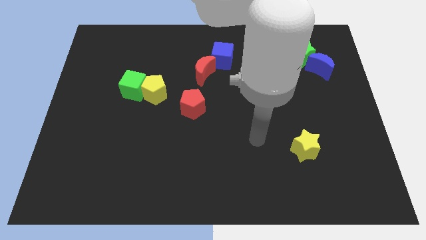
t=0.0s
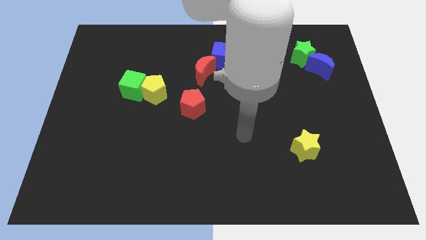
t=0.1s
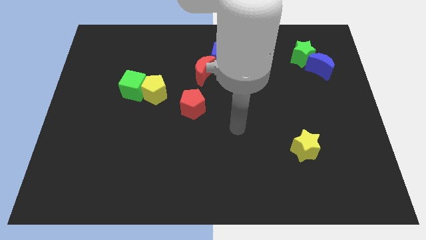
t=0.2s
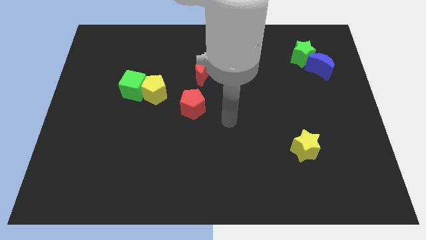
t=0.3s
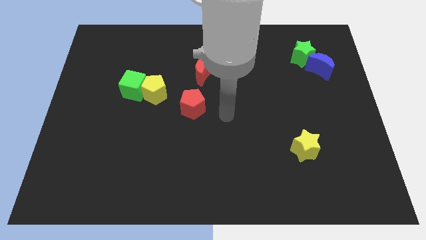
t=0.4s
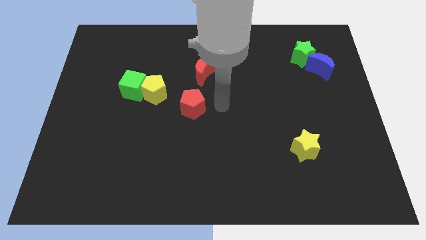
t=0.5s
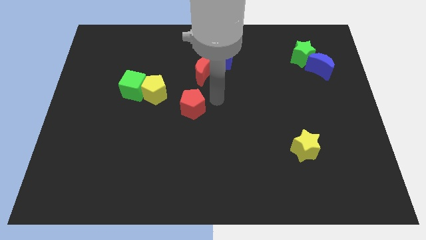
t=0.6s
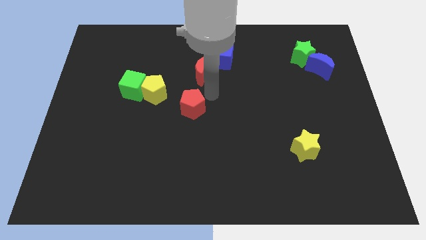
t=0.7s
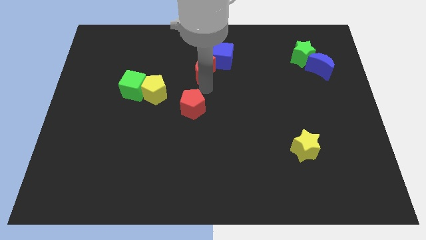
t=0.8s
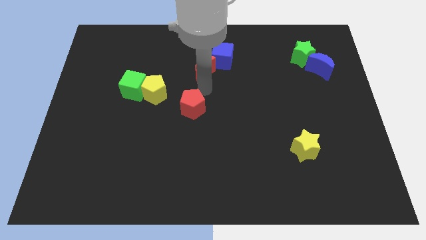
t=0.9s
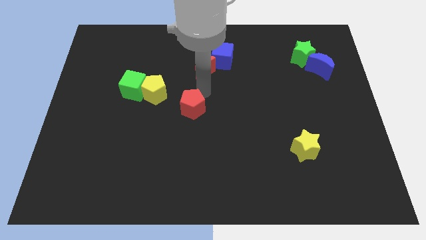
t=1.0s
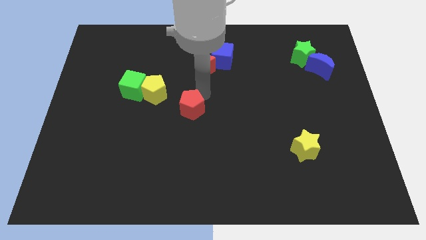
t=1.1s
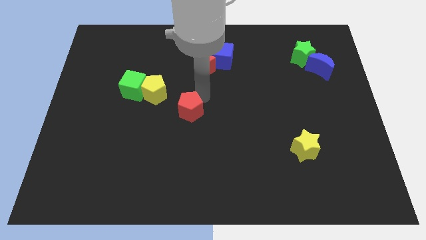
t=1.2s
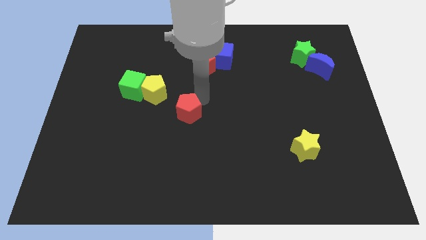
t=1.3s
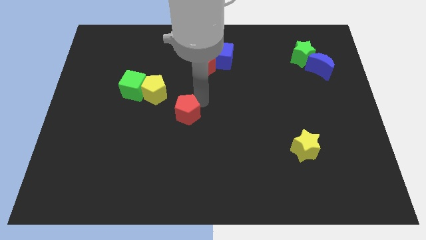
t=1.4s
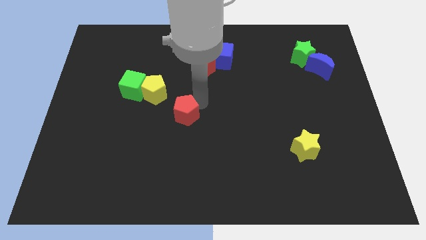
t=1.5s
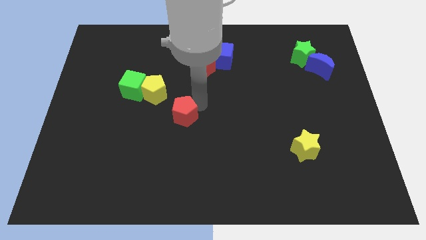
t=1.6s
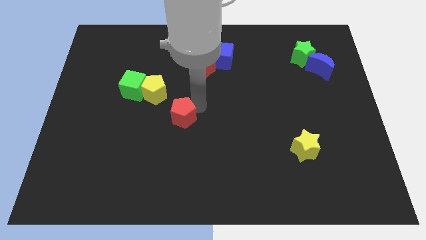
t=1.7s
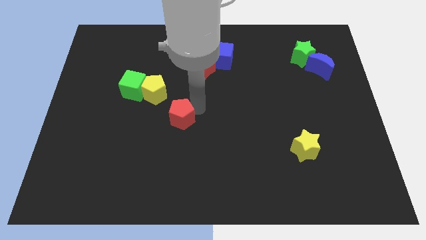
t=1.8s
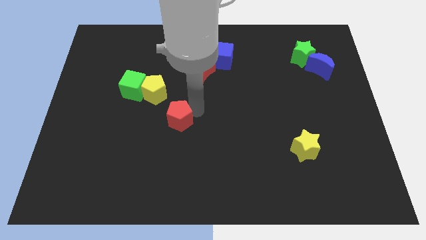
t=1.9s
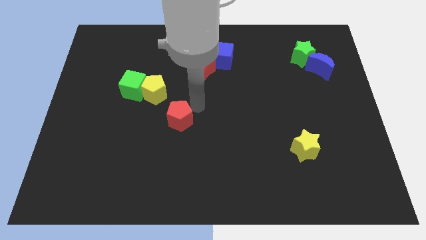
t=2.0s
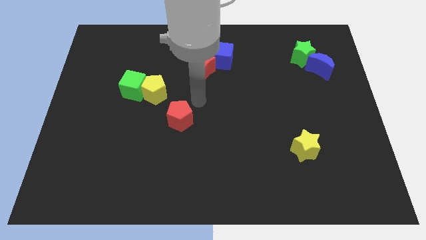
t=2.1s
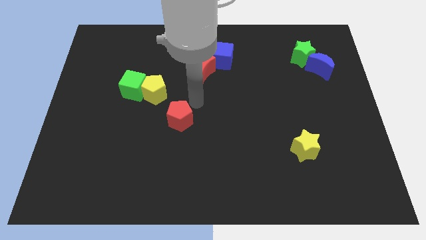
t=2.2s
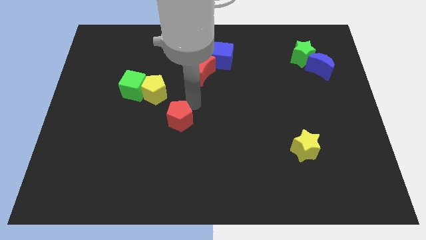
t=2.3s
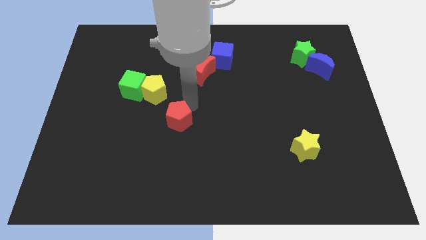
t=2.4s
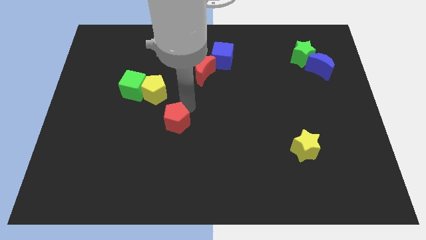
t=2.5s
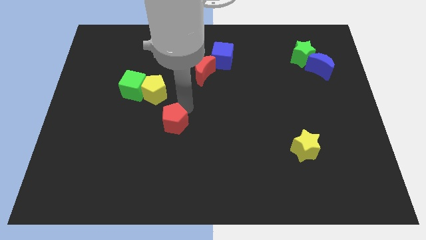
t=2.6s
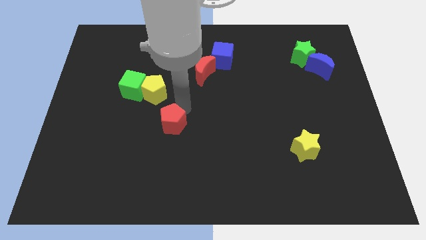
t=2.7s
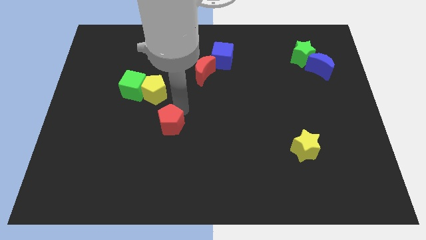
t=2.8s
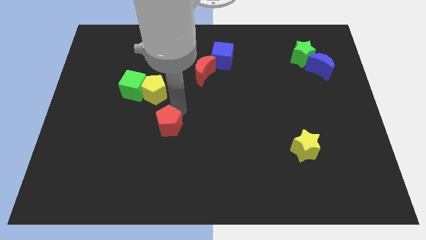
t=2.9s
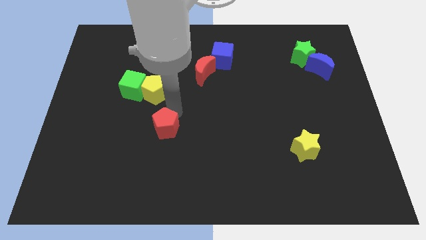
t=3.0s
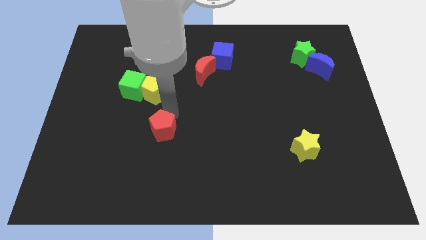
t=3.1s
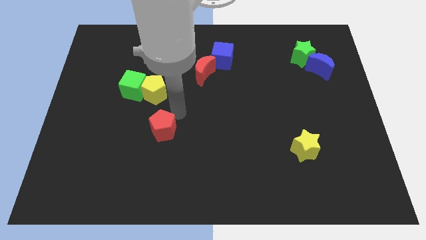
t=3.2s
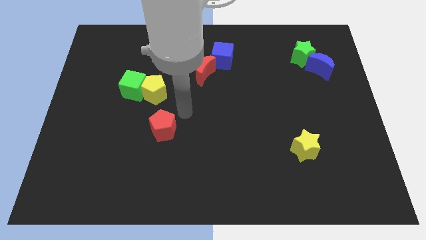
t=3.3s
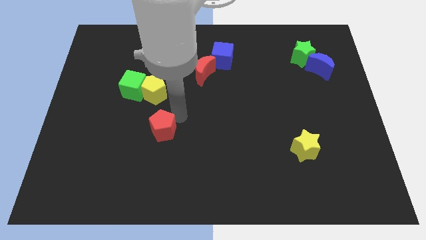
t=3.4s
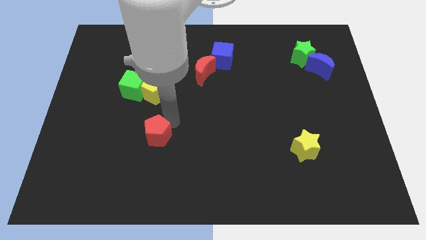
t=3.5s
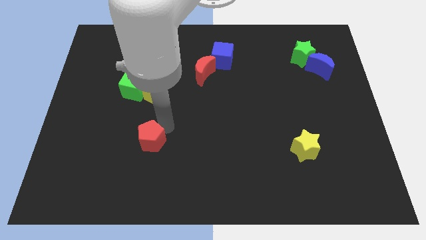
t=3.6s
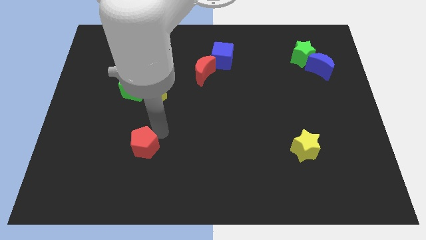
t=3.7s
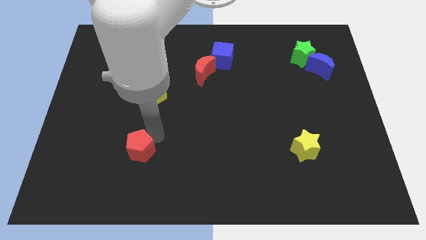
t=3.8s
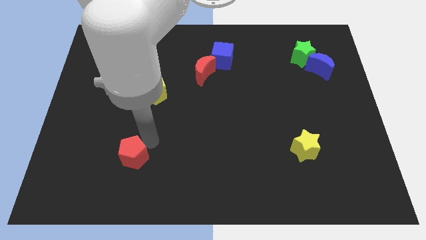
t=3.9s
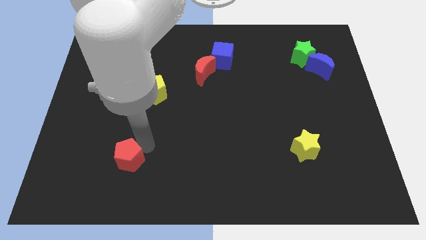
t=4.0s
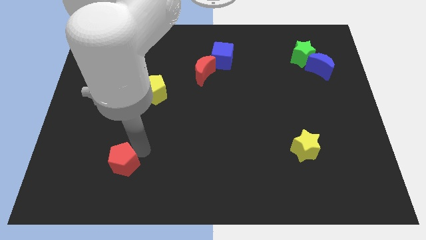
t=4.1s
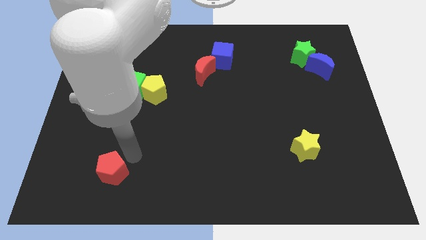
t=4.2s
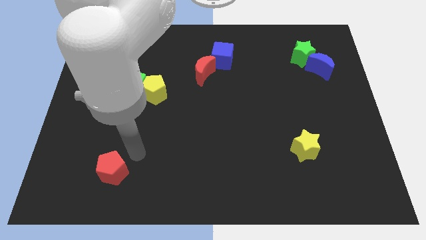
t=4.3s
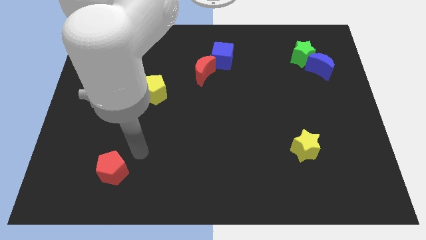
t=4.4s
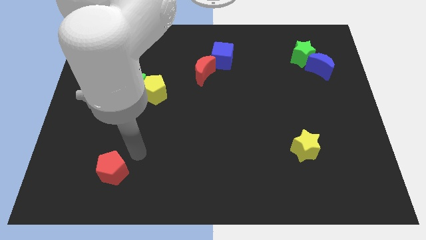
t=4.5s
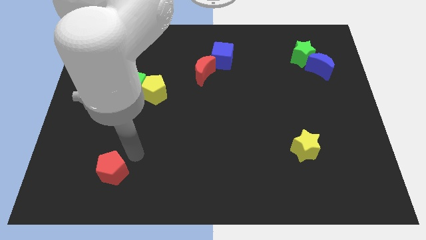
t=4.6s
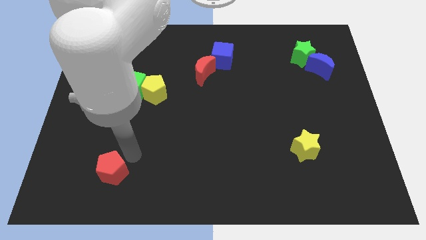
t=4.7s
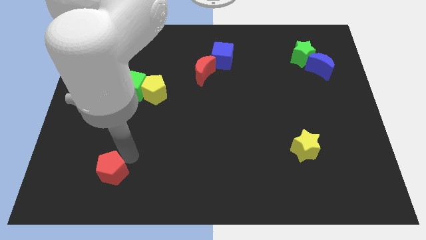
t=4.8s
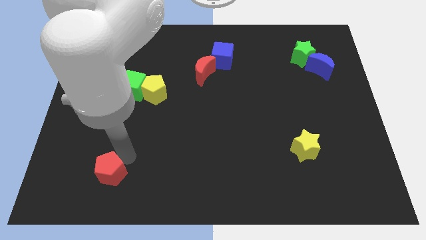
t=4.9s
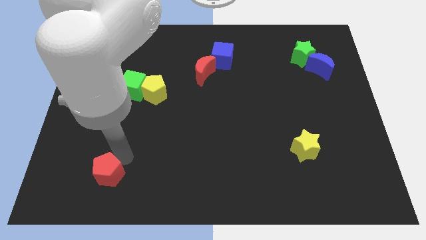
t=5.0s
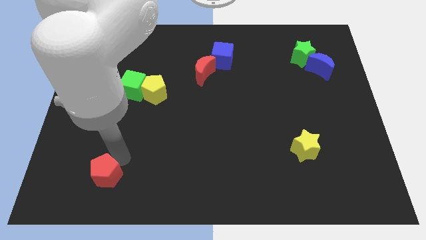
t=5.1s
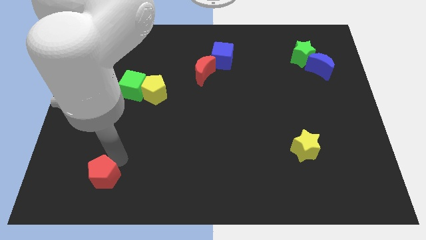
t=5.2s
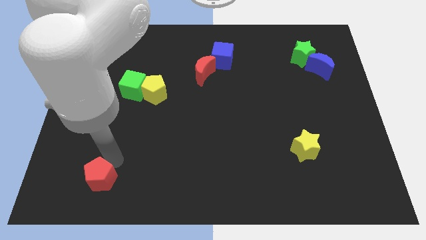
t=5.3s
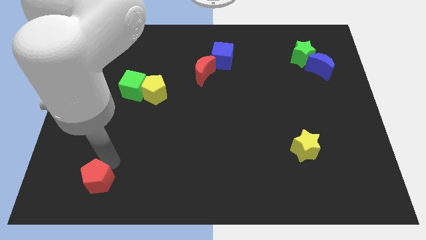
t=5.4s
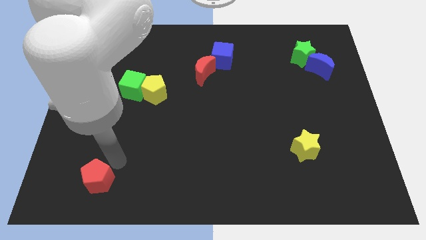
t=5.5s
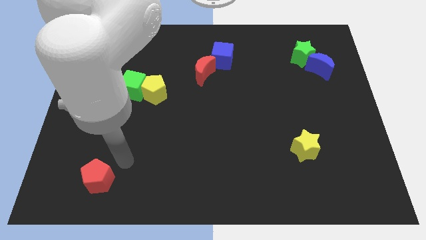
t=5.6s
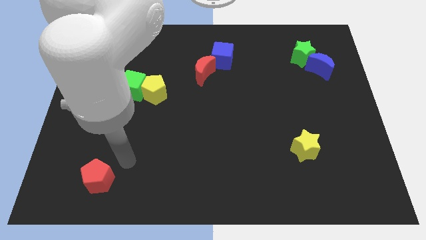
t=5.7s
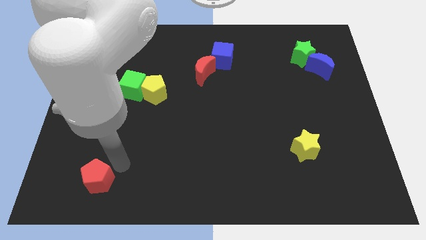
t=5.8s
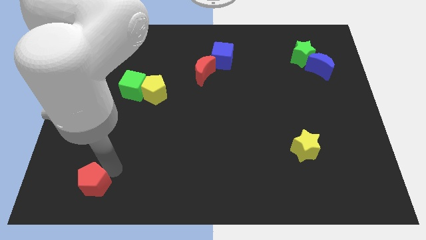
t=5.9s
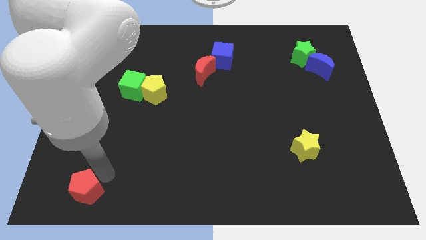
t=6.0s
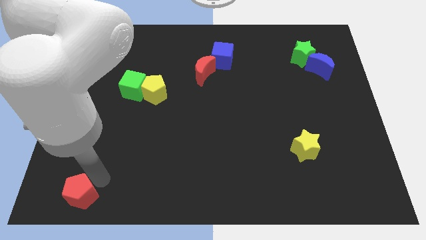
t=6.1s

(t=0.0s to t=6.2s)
put the red pentagon to the bottom left
